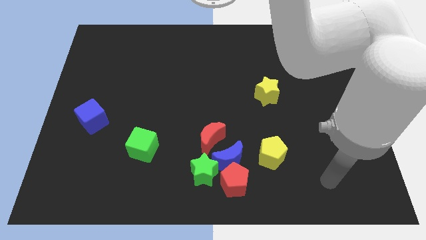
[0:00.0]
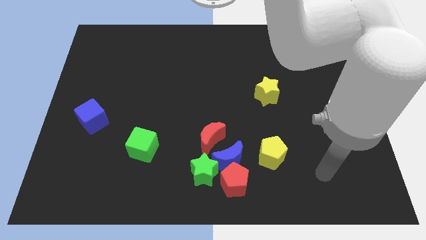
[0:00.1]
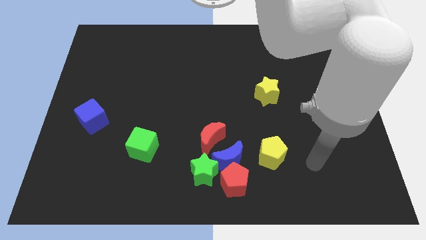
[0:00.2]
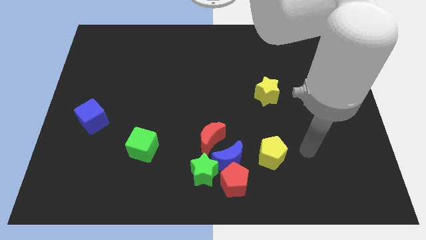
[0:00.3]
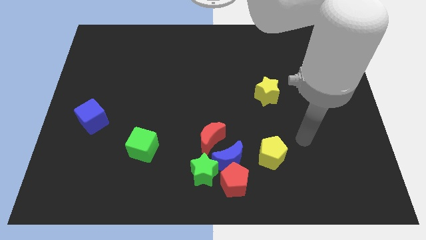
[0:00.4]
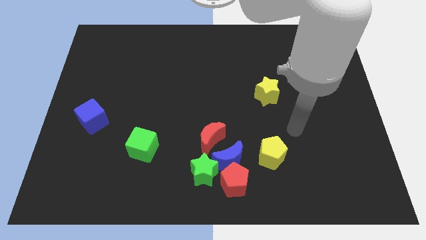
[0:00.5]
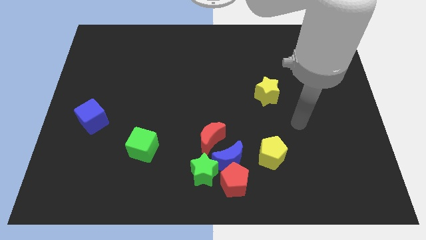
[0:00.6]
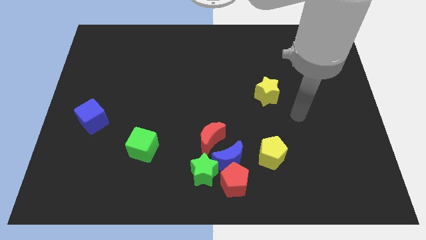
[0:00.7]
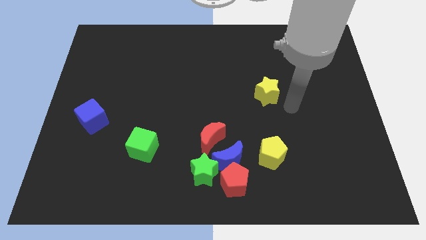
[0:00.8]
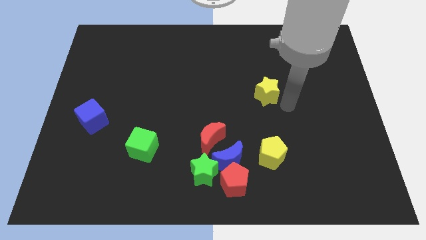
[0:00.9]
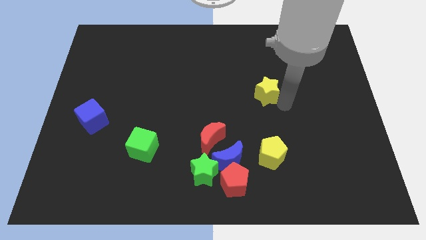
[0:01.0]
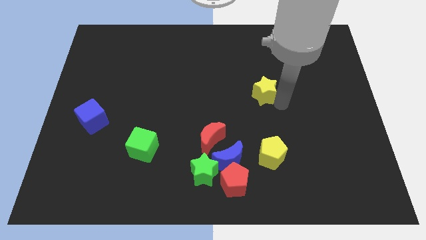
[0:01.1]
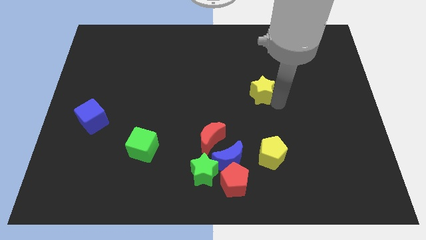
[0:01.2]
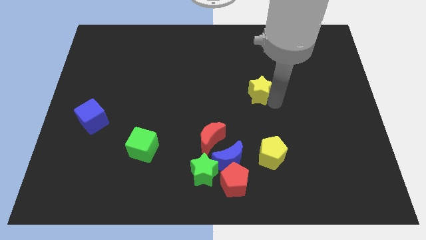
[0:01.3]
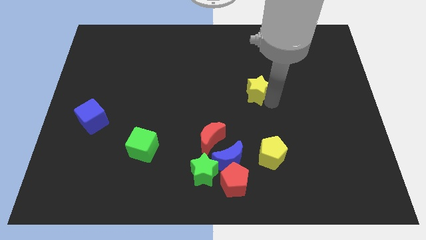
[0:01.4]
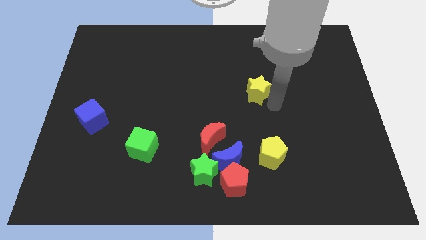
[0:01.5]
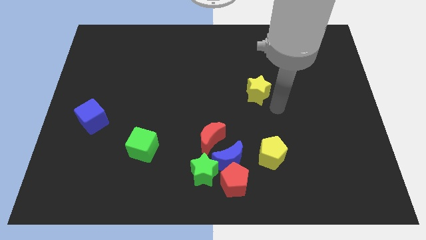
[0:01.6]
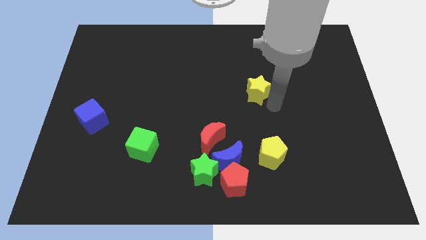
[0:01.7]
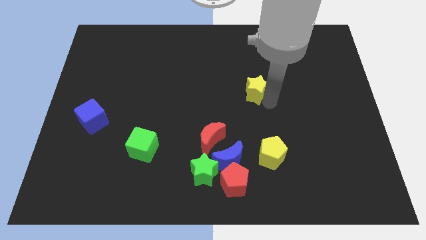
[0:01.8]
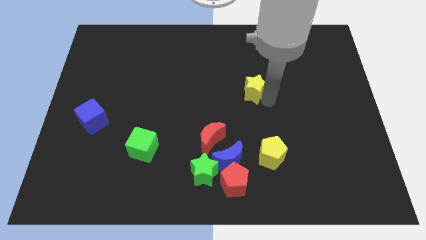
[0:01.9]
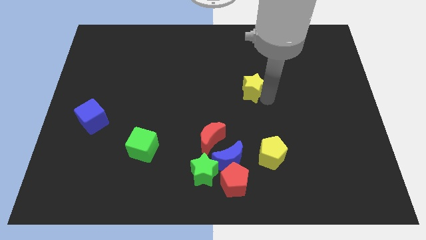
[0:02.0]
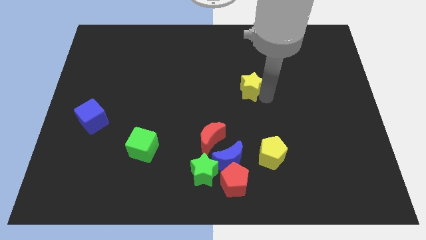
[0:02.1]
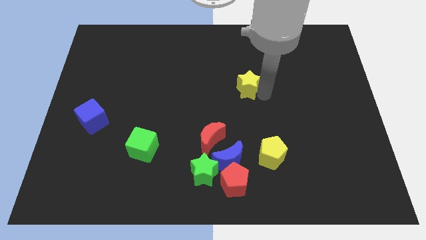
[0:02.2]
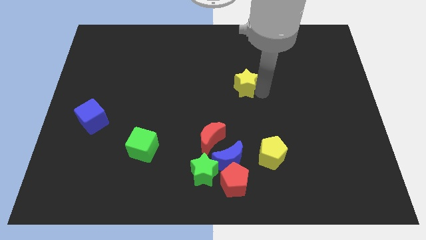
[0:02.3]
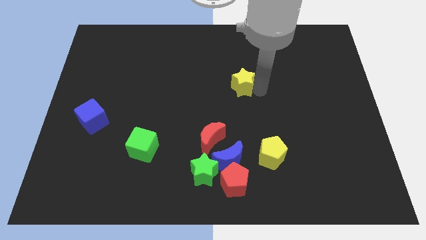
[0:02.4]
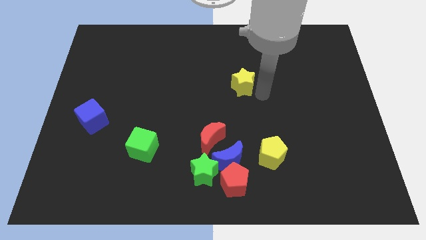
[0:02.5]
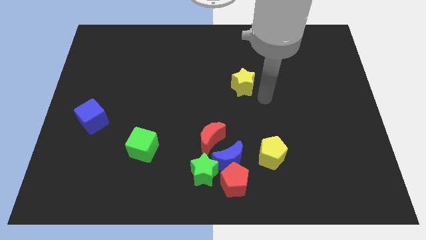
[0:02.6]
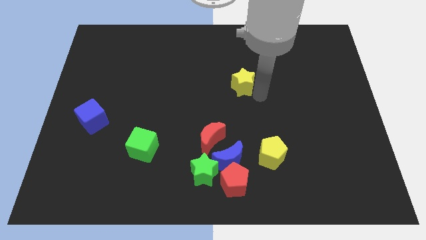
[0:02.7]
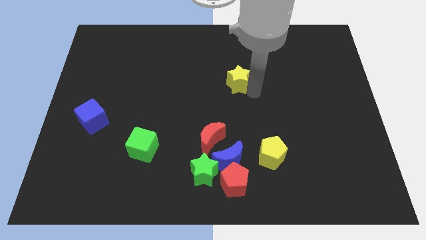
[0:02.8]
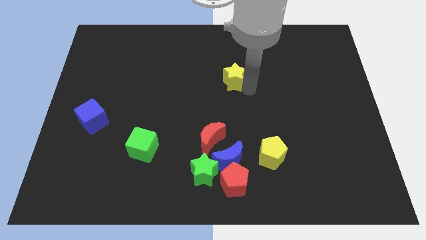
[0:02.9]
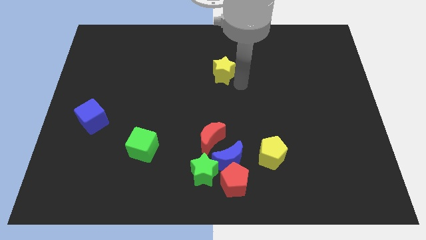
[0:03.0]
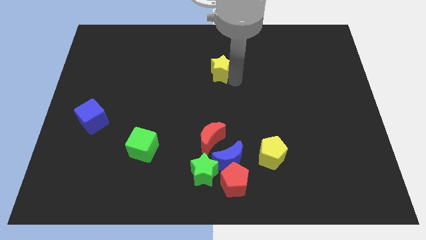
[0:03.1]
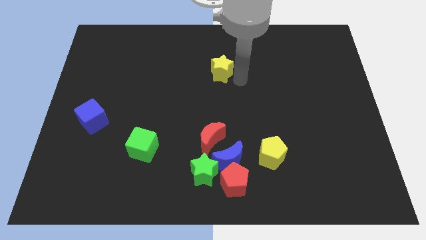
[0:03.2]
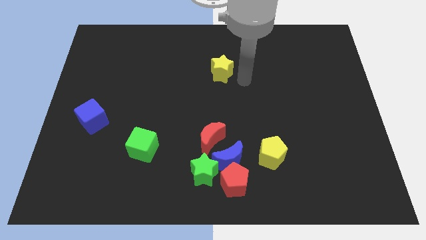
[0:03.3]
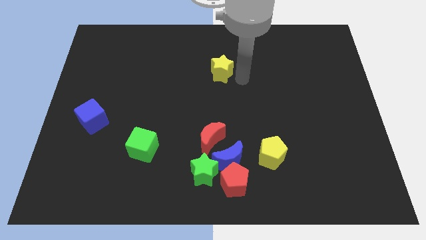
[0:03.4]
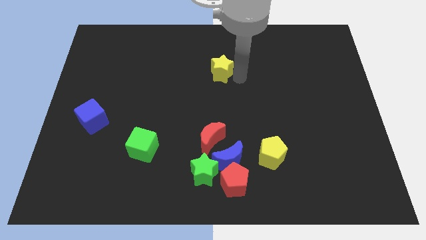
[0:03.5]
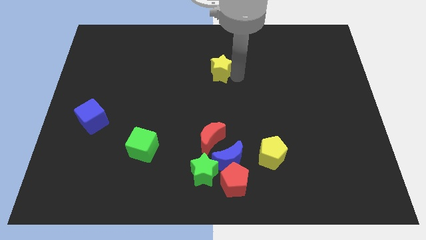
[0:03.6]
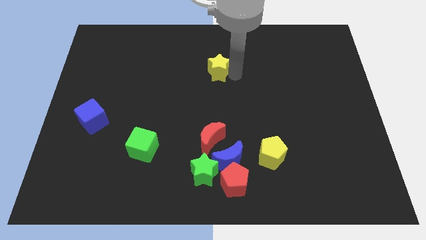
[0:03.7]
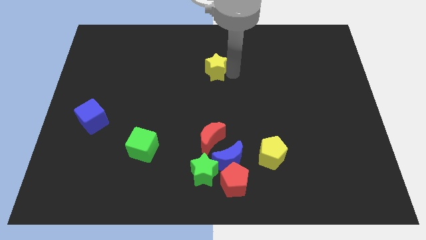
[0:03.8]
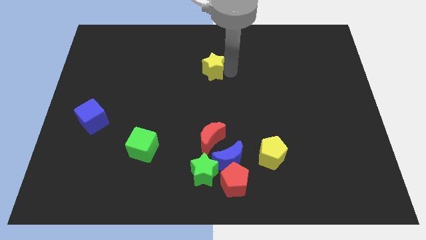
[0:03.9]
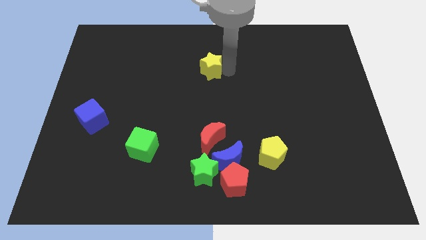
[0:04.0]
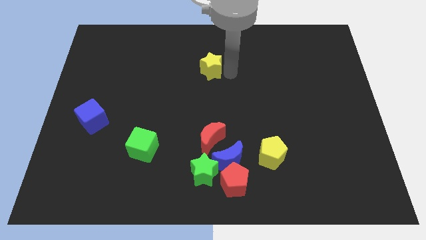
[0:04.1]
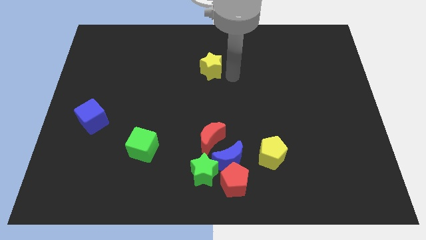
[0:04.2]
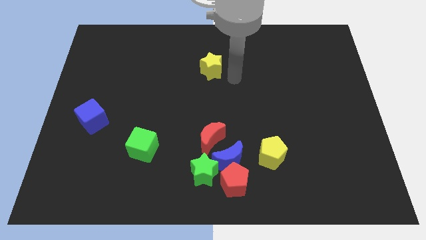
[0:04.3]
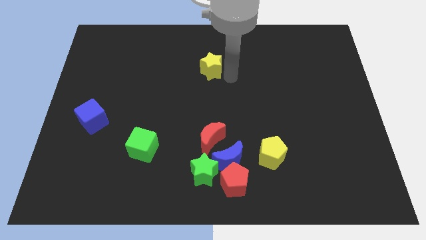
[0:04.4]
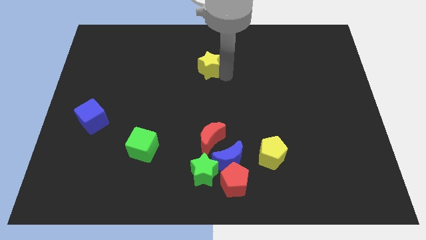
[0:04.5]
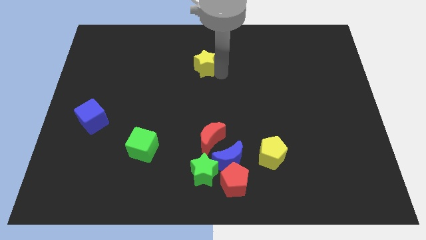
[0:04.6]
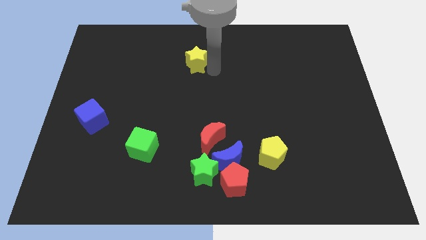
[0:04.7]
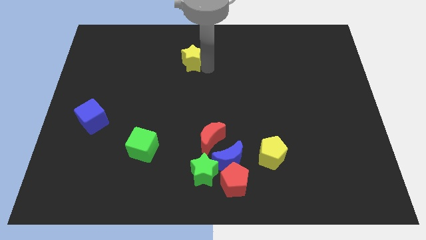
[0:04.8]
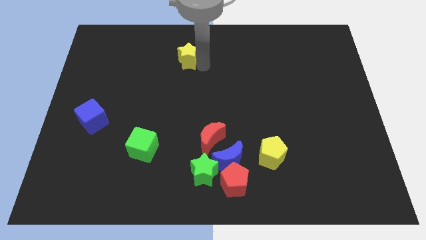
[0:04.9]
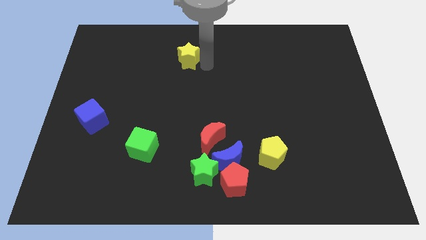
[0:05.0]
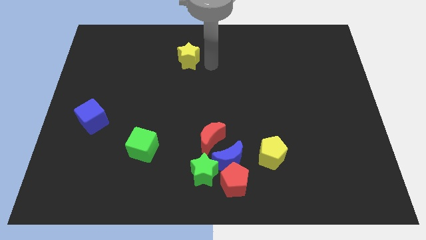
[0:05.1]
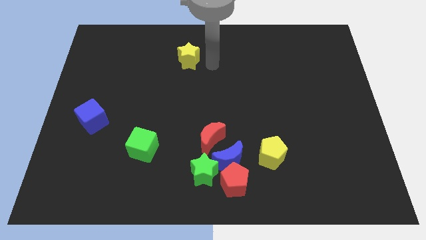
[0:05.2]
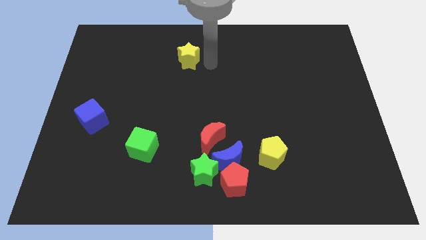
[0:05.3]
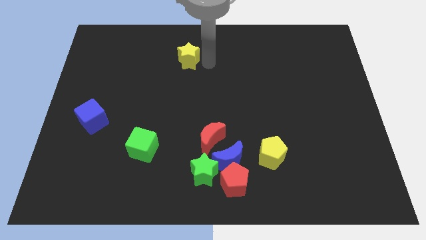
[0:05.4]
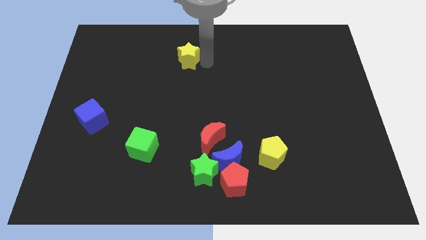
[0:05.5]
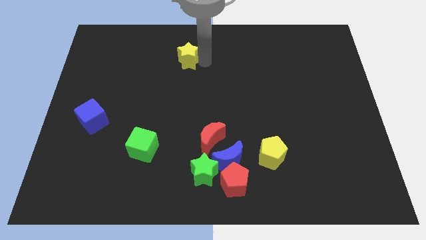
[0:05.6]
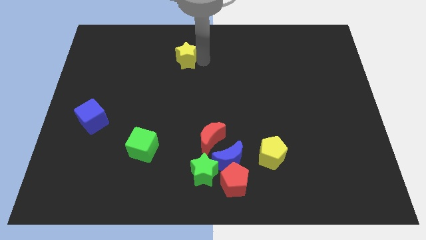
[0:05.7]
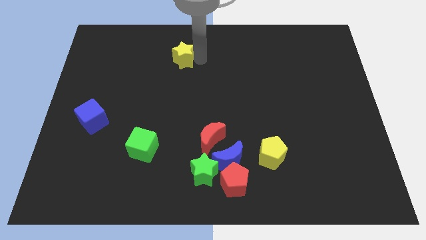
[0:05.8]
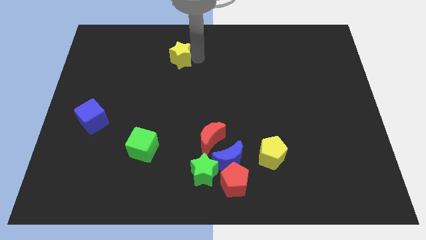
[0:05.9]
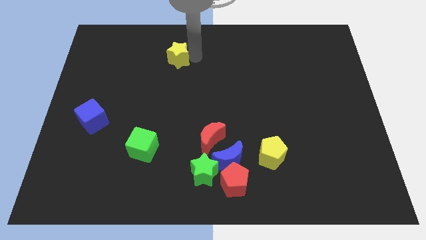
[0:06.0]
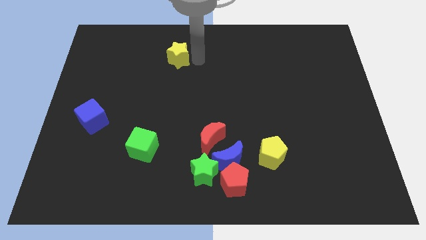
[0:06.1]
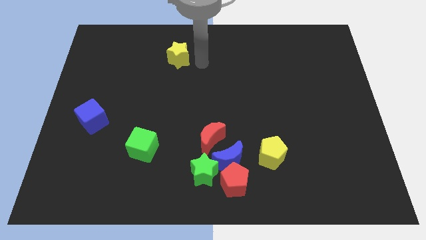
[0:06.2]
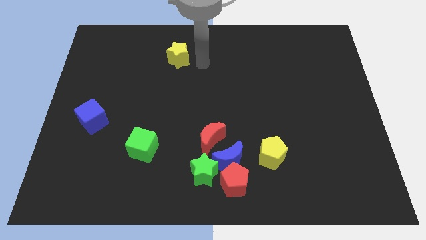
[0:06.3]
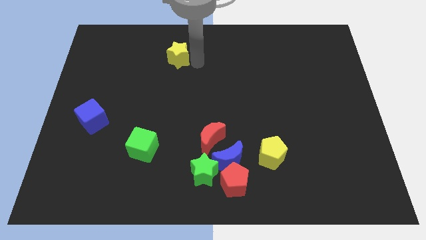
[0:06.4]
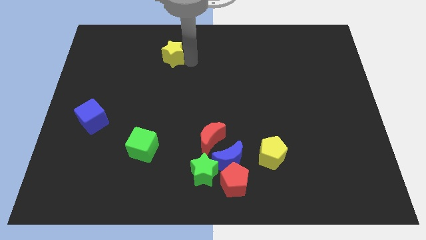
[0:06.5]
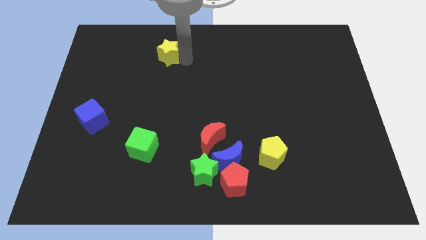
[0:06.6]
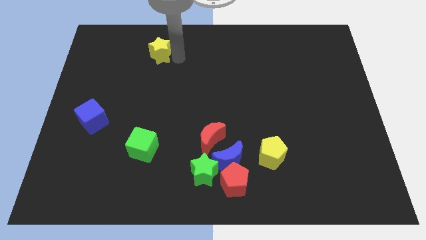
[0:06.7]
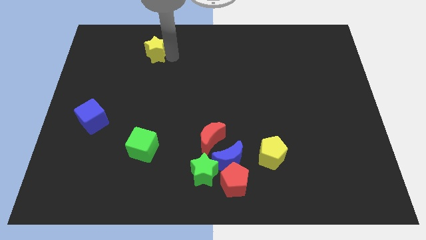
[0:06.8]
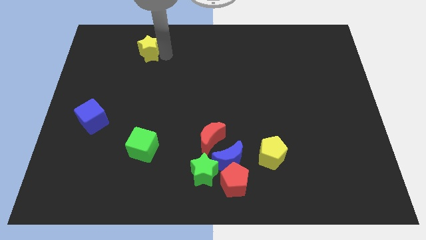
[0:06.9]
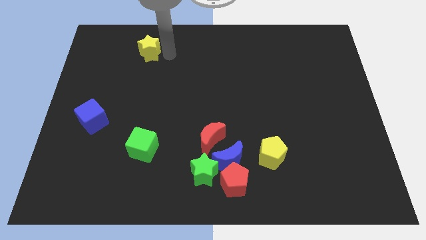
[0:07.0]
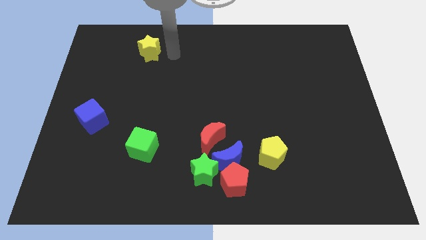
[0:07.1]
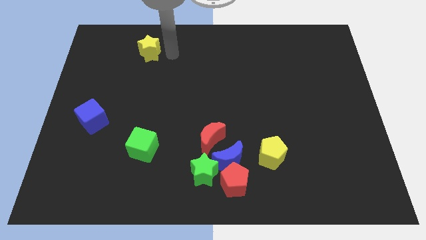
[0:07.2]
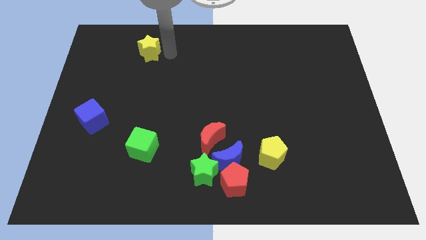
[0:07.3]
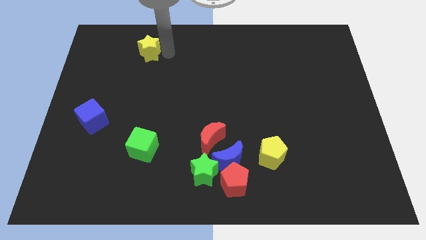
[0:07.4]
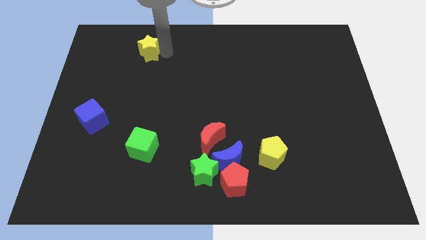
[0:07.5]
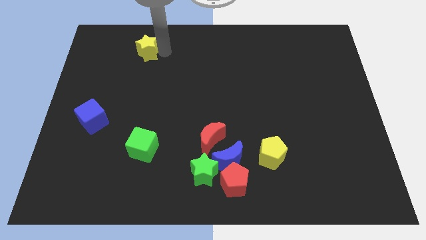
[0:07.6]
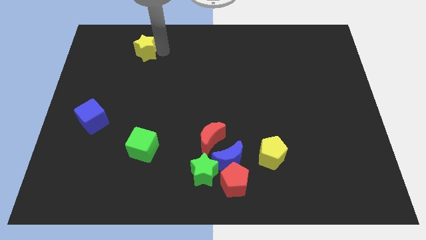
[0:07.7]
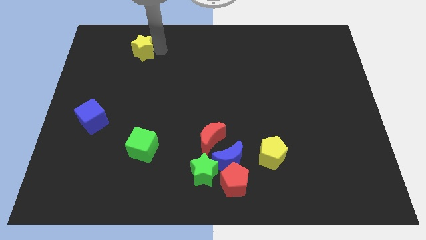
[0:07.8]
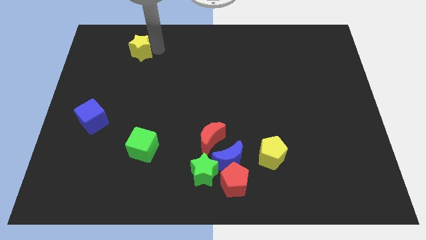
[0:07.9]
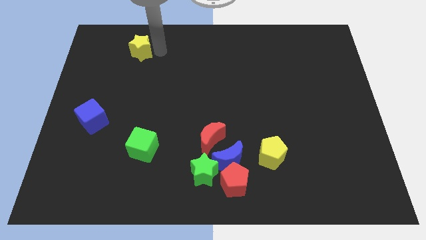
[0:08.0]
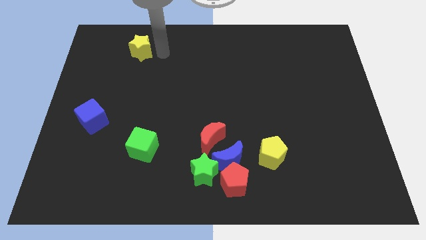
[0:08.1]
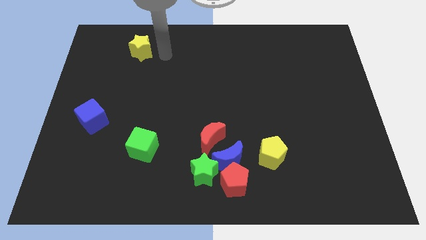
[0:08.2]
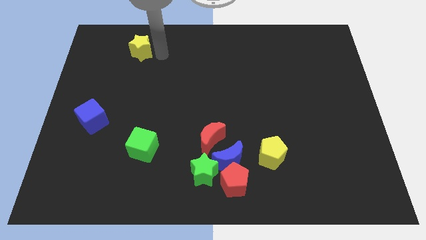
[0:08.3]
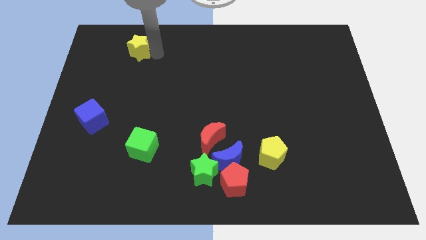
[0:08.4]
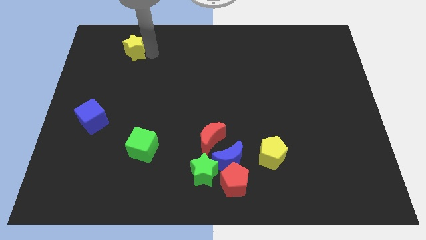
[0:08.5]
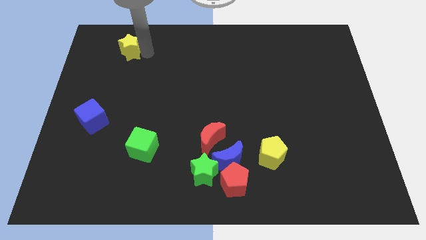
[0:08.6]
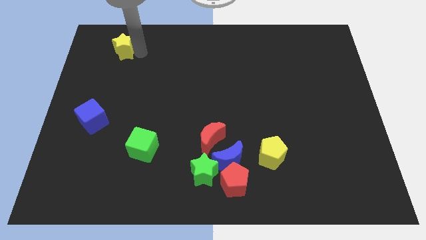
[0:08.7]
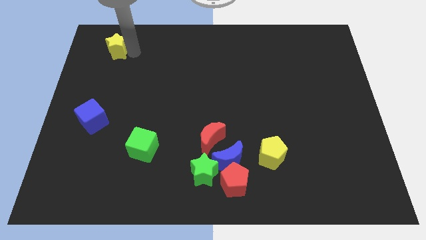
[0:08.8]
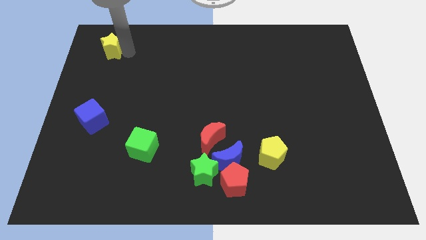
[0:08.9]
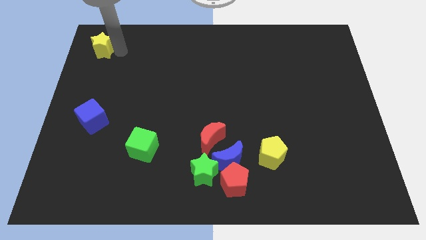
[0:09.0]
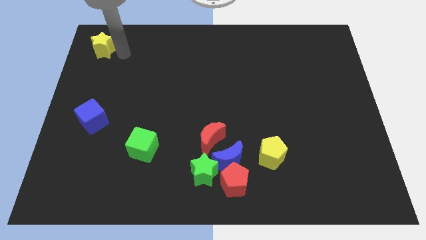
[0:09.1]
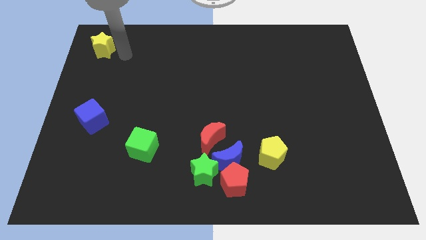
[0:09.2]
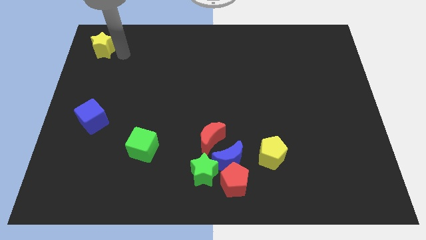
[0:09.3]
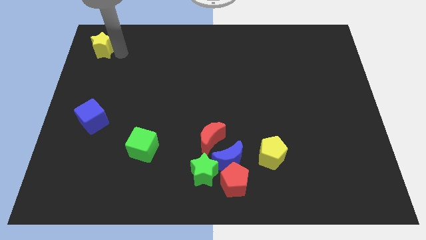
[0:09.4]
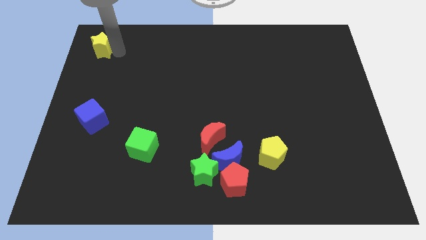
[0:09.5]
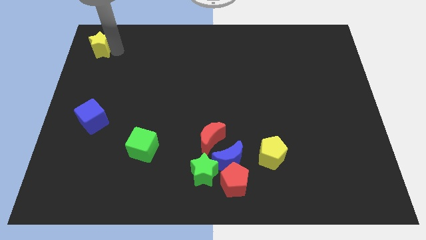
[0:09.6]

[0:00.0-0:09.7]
slide the yellow star to the upper left corner
